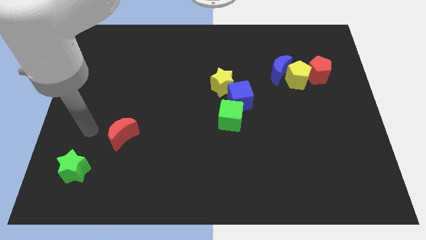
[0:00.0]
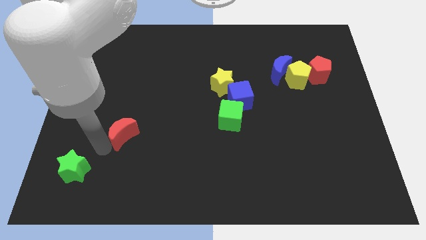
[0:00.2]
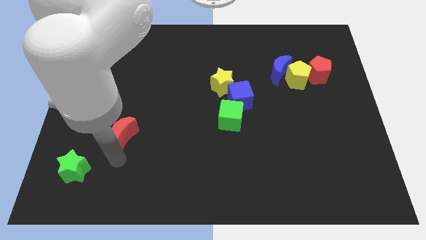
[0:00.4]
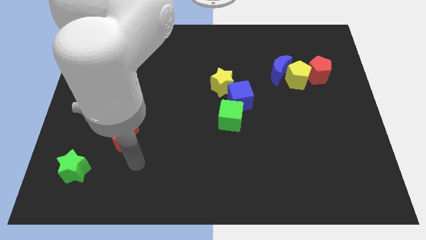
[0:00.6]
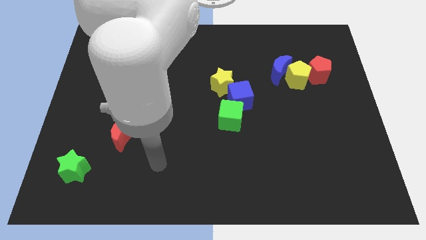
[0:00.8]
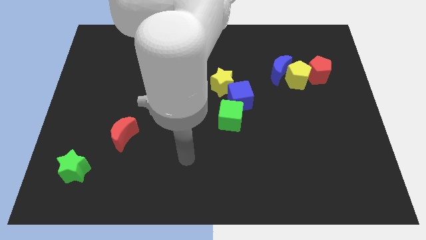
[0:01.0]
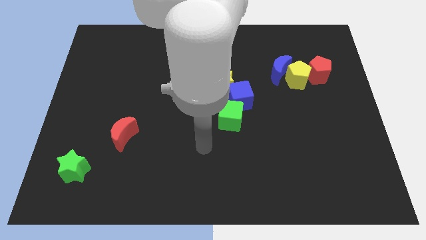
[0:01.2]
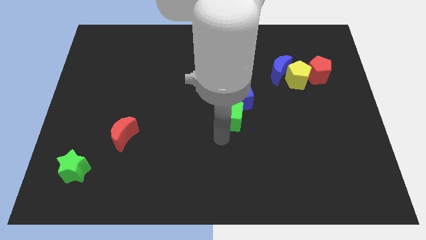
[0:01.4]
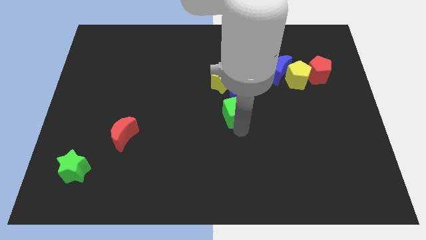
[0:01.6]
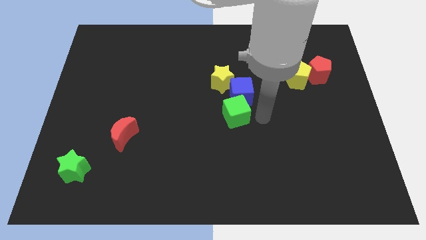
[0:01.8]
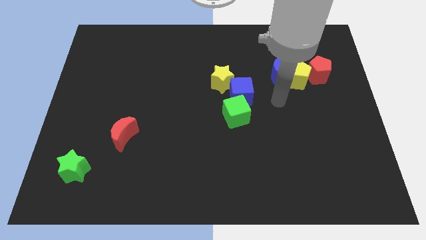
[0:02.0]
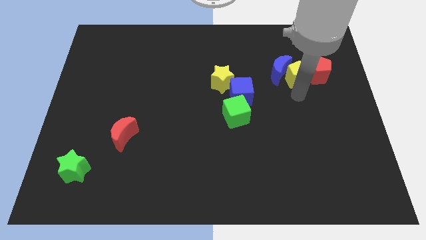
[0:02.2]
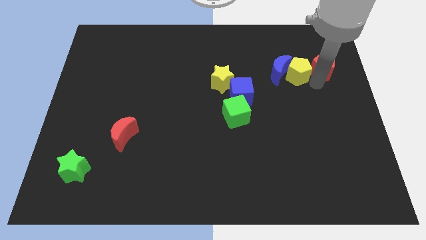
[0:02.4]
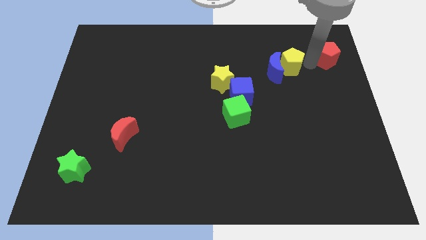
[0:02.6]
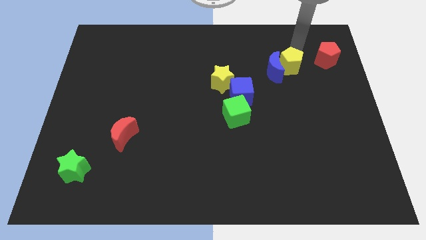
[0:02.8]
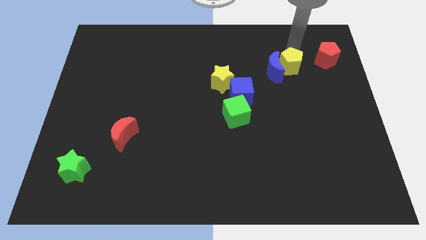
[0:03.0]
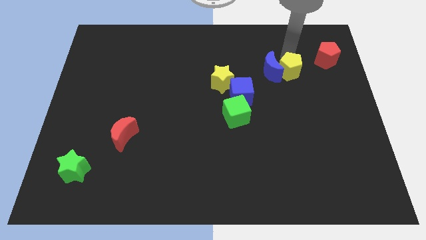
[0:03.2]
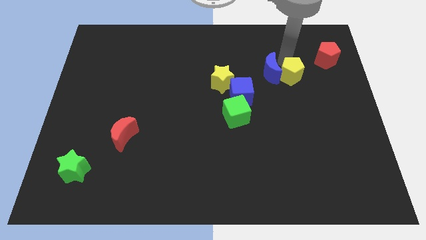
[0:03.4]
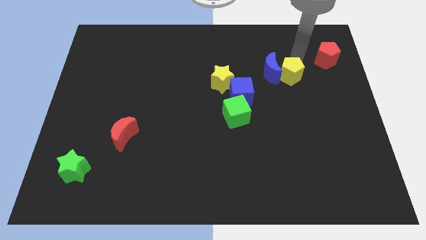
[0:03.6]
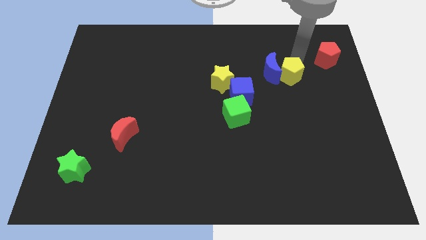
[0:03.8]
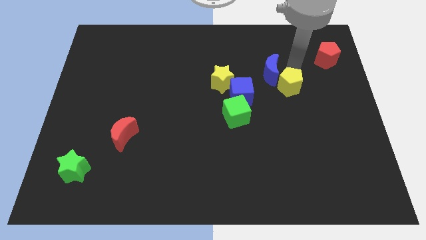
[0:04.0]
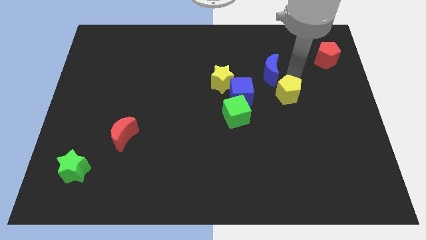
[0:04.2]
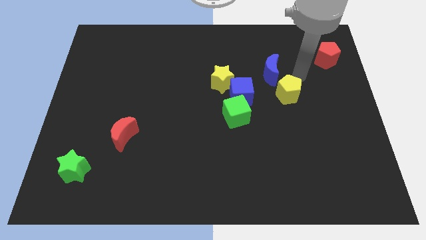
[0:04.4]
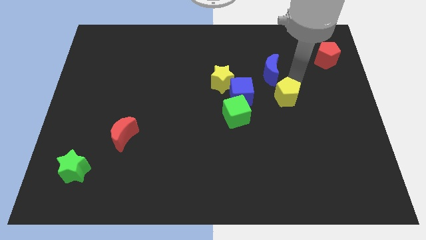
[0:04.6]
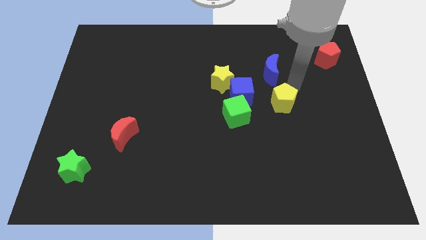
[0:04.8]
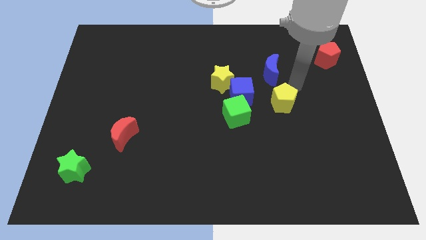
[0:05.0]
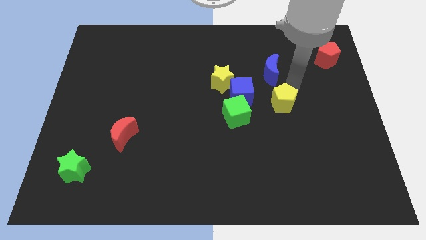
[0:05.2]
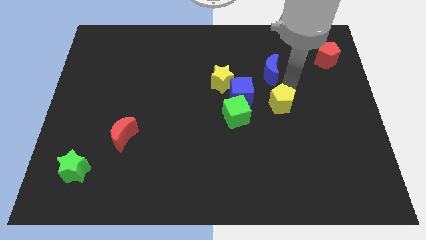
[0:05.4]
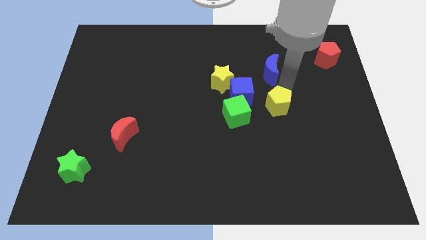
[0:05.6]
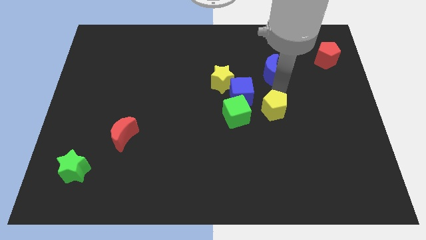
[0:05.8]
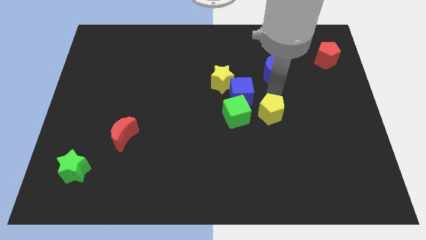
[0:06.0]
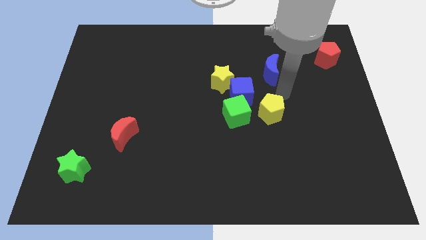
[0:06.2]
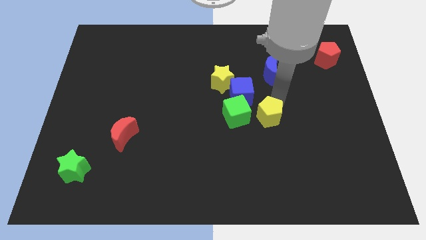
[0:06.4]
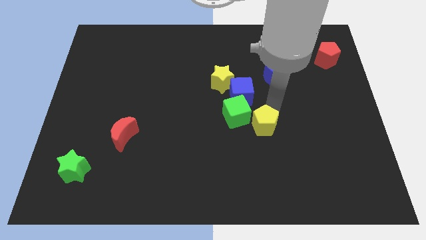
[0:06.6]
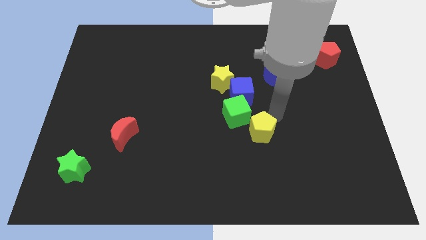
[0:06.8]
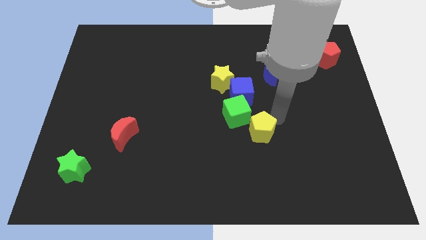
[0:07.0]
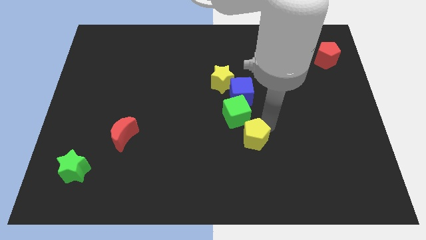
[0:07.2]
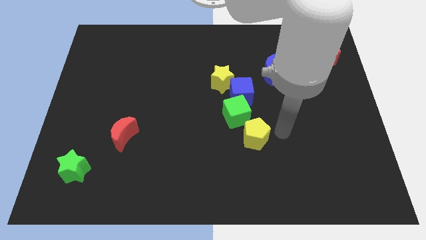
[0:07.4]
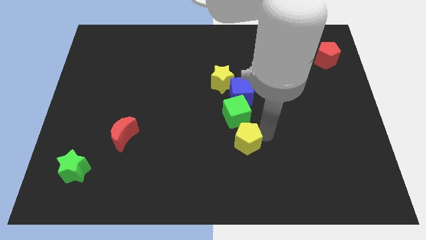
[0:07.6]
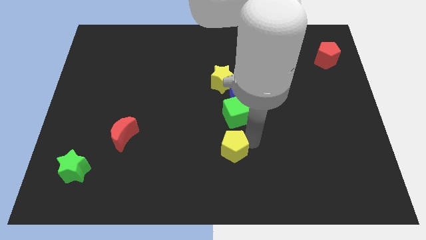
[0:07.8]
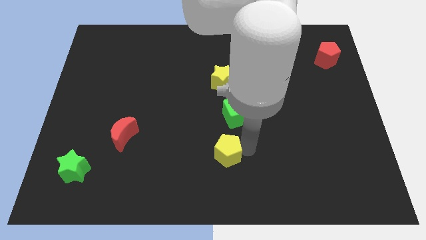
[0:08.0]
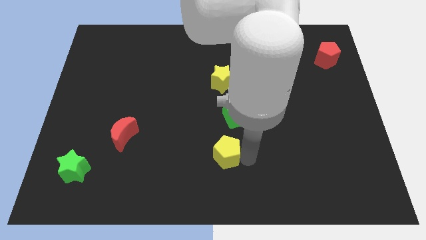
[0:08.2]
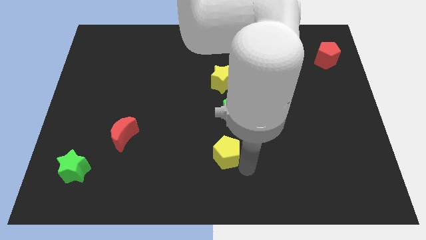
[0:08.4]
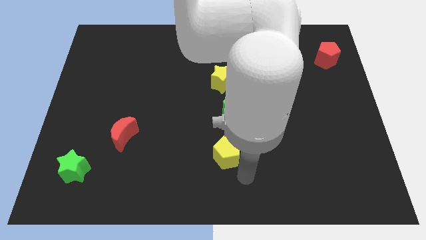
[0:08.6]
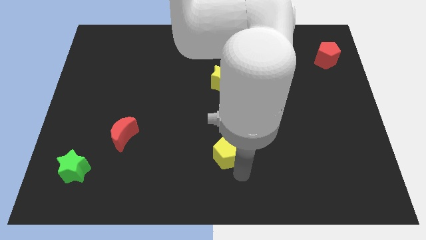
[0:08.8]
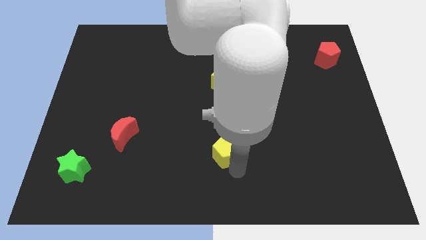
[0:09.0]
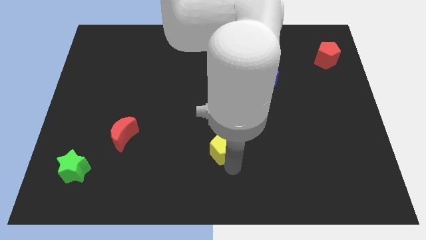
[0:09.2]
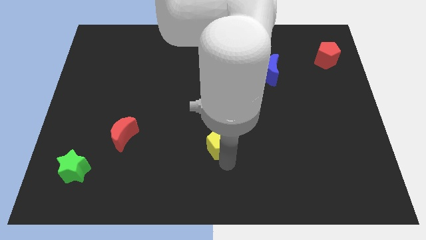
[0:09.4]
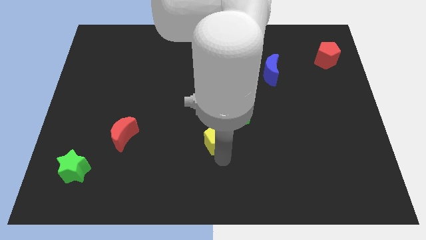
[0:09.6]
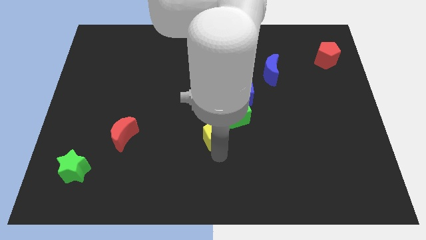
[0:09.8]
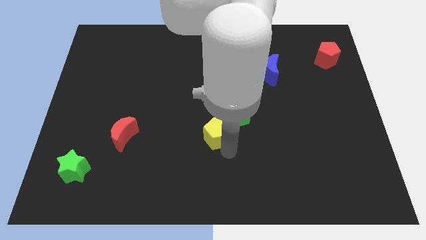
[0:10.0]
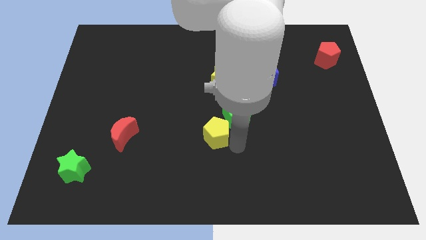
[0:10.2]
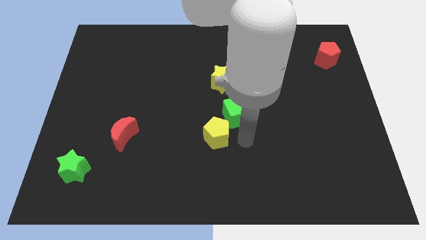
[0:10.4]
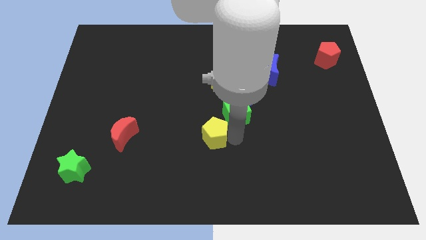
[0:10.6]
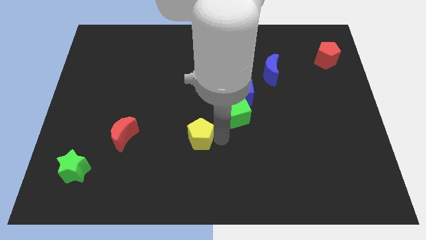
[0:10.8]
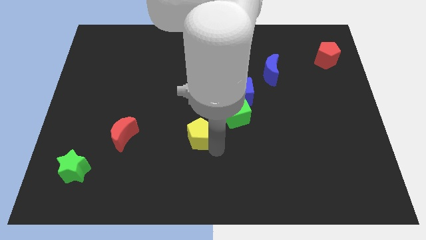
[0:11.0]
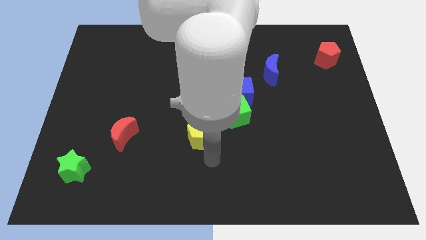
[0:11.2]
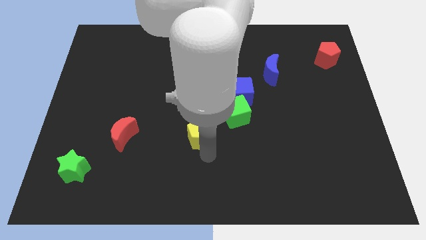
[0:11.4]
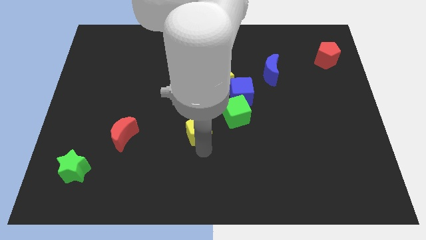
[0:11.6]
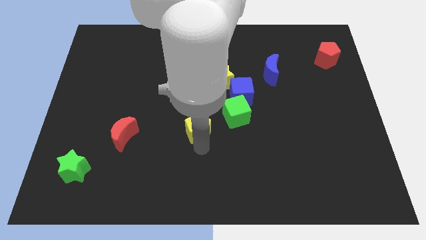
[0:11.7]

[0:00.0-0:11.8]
put the yellow pentagon just left of the green cube
